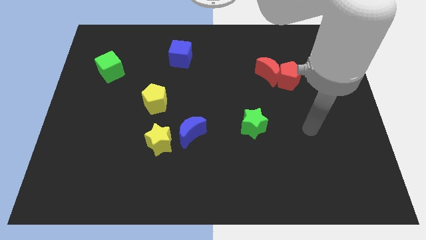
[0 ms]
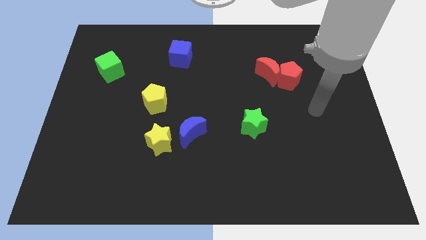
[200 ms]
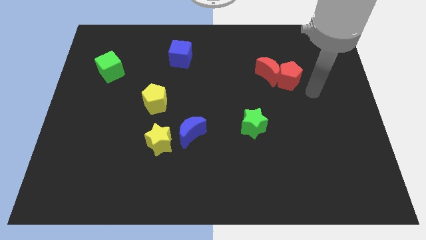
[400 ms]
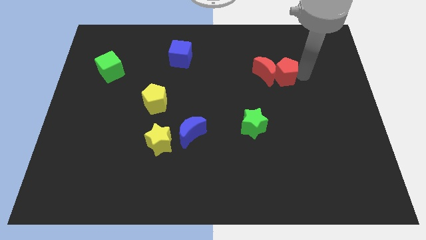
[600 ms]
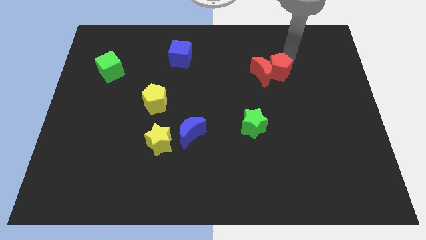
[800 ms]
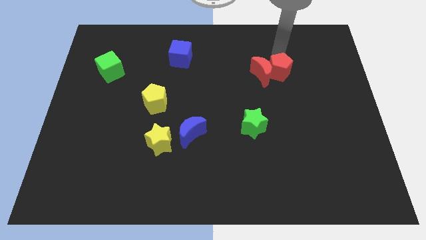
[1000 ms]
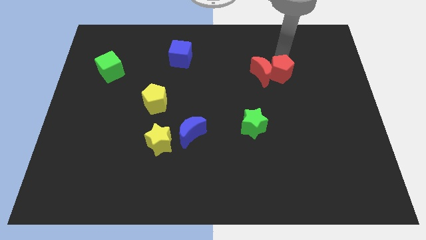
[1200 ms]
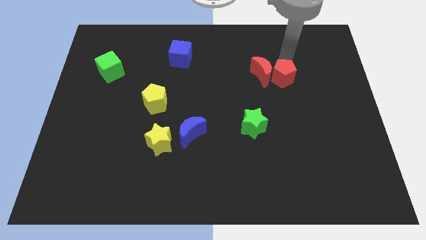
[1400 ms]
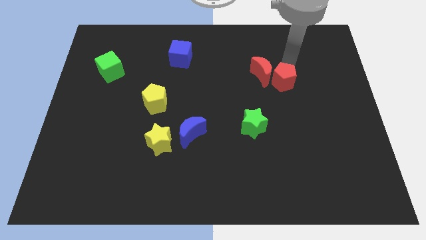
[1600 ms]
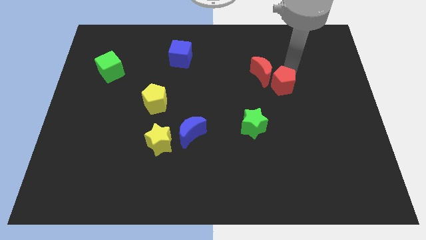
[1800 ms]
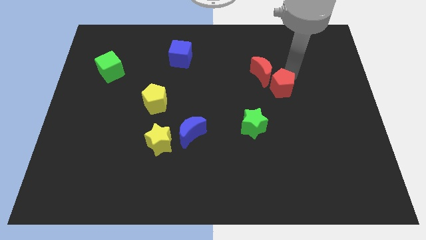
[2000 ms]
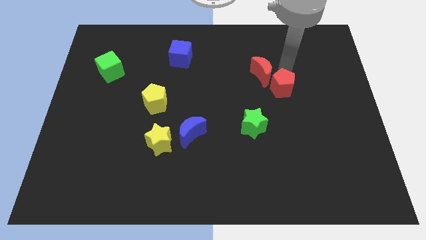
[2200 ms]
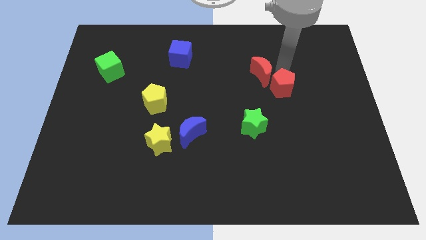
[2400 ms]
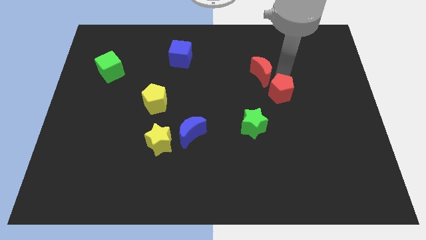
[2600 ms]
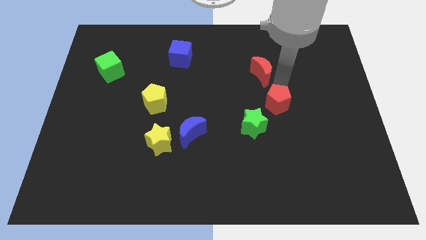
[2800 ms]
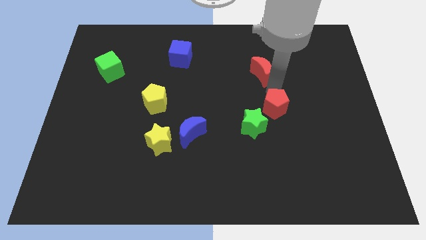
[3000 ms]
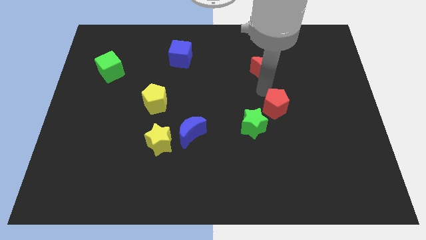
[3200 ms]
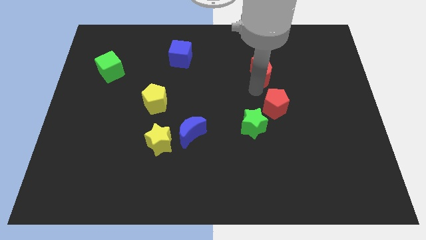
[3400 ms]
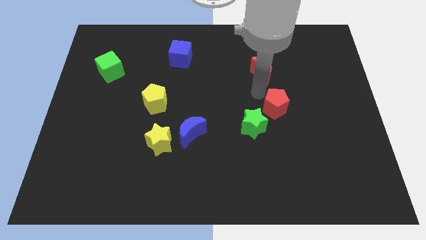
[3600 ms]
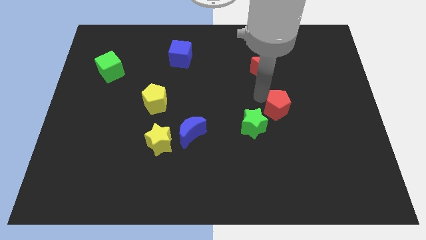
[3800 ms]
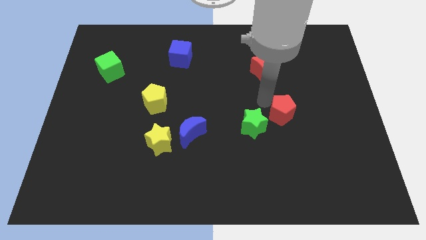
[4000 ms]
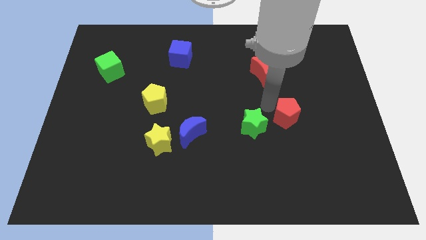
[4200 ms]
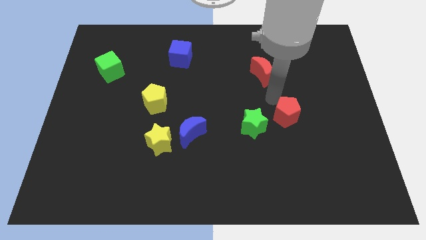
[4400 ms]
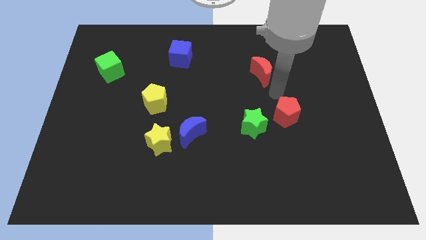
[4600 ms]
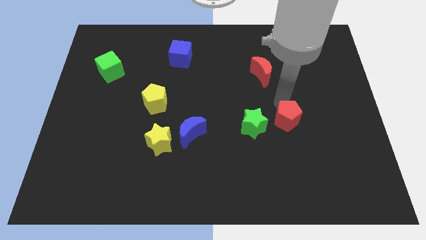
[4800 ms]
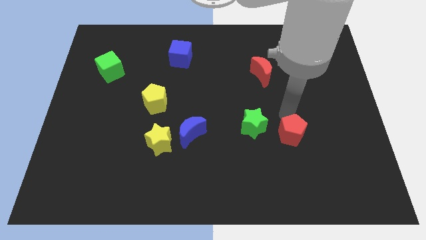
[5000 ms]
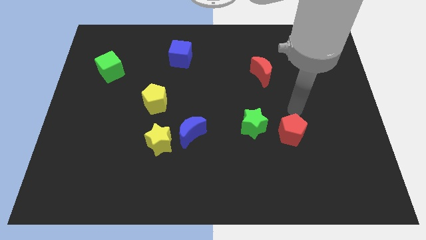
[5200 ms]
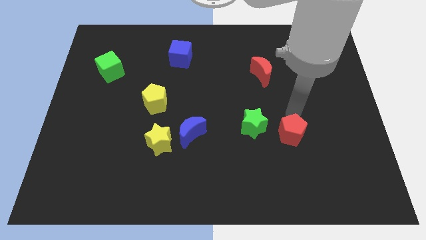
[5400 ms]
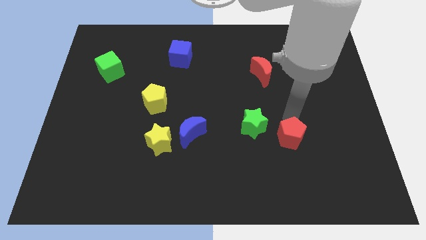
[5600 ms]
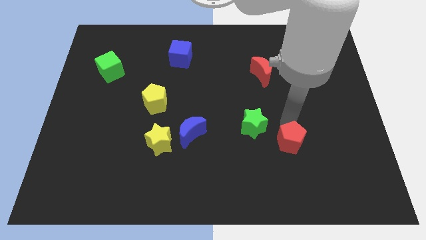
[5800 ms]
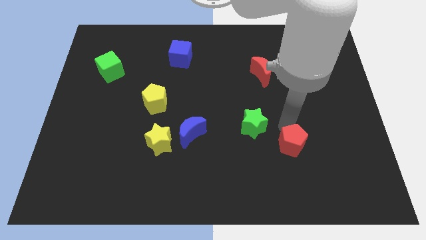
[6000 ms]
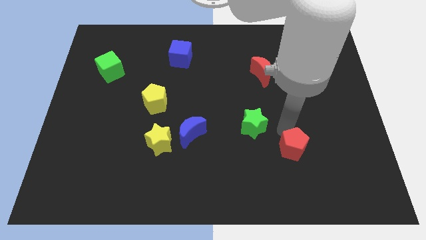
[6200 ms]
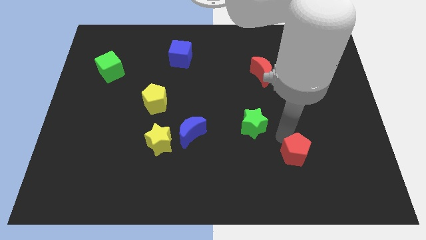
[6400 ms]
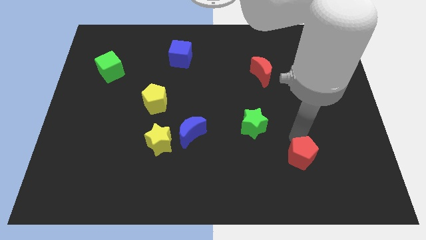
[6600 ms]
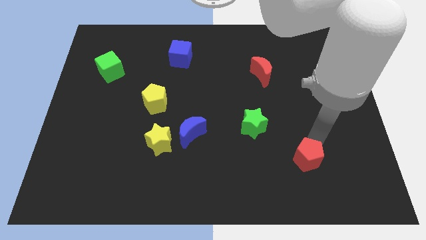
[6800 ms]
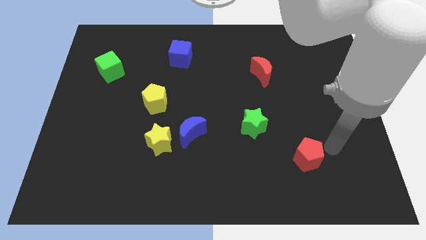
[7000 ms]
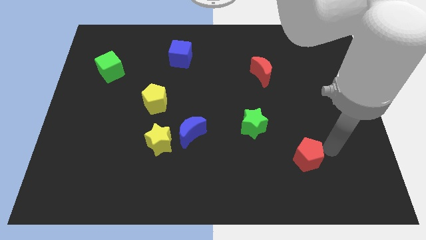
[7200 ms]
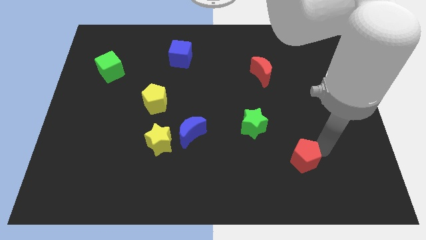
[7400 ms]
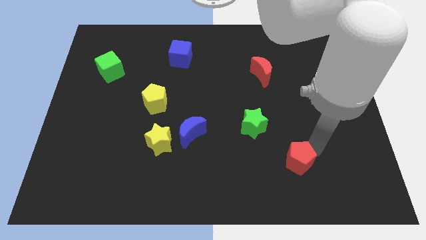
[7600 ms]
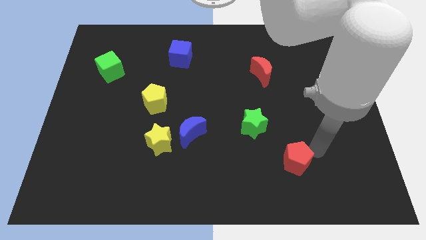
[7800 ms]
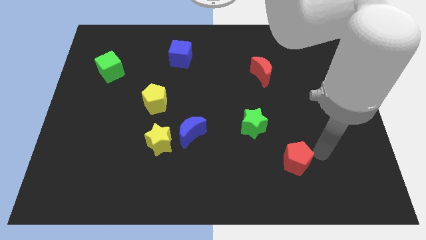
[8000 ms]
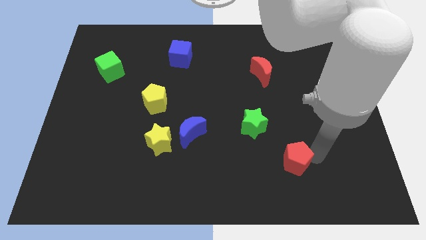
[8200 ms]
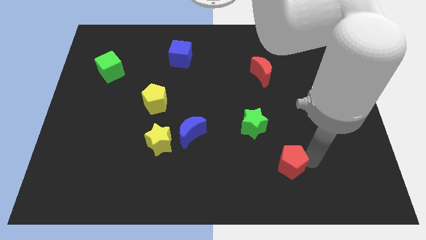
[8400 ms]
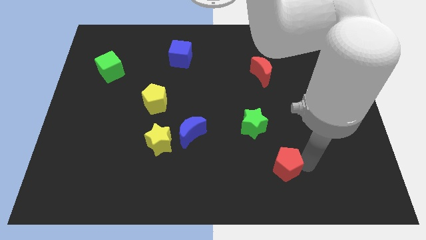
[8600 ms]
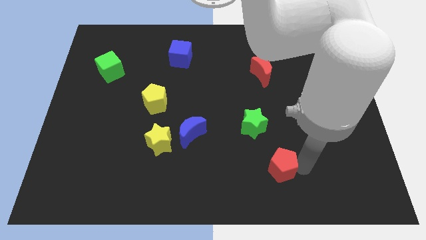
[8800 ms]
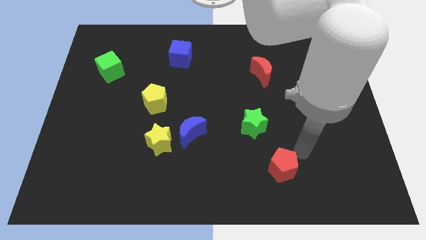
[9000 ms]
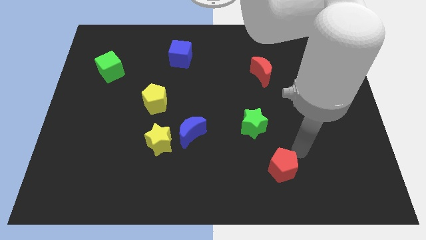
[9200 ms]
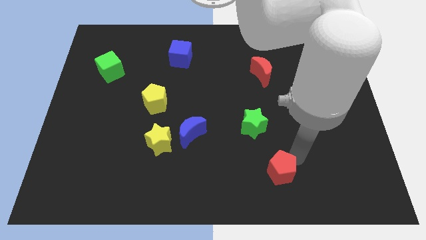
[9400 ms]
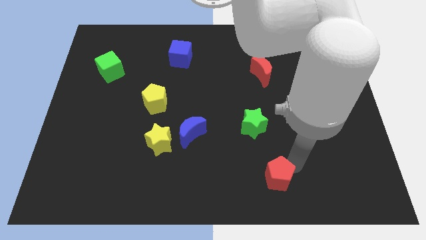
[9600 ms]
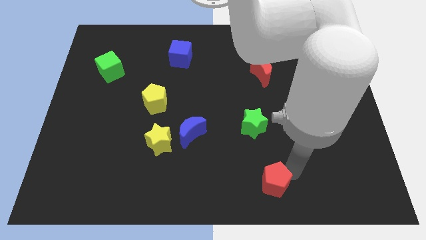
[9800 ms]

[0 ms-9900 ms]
put the red pentagon to the bottom
